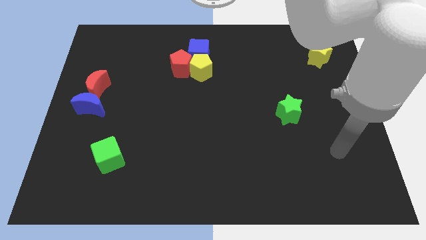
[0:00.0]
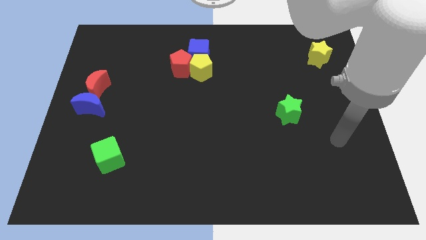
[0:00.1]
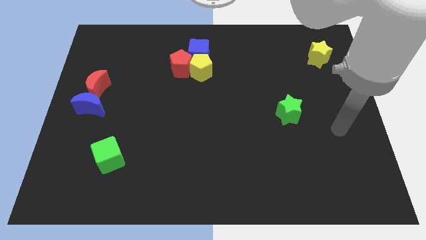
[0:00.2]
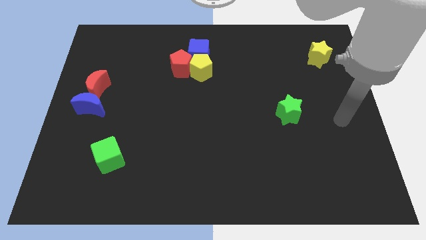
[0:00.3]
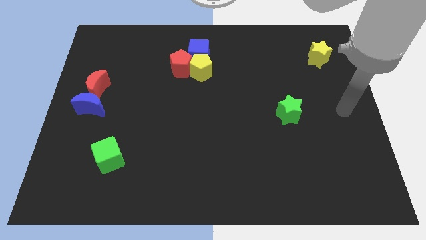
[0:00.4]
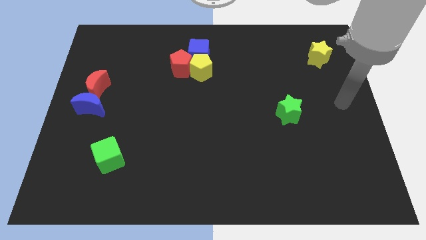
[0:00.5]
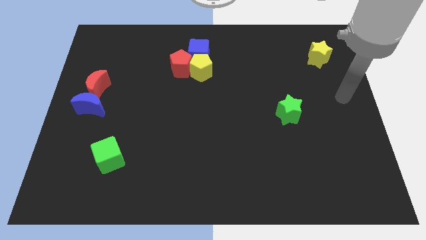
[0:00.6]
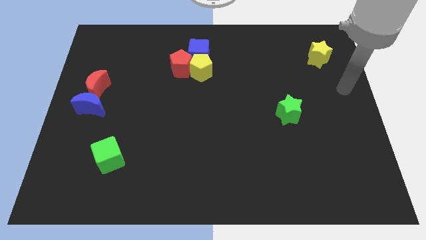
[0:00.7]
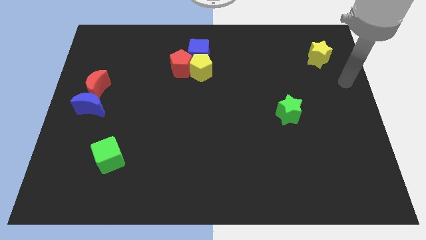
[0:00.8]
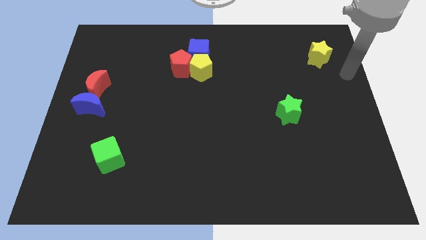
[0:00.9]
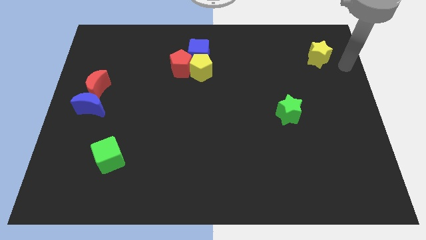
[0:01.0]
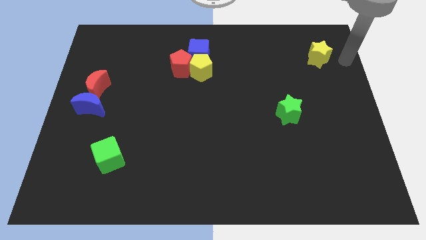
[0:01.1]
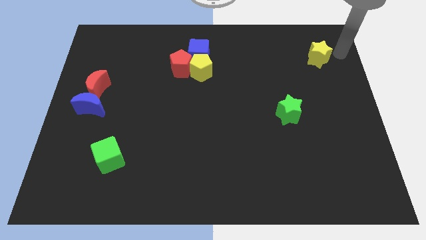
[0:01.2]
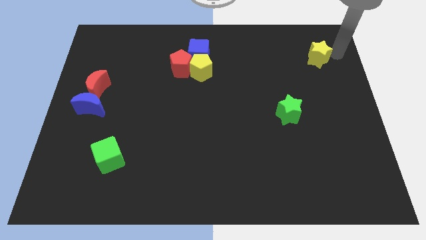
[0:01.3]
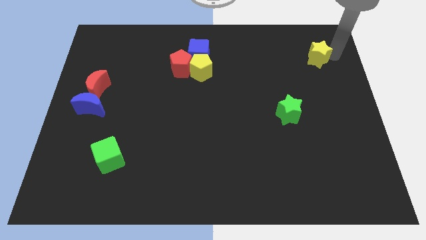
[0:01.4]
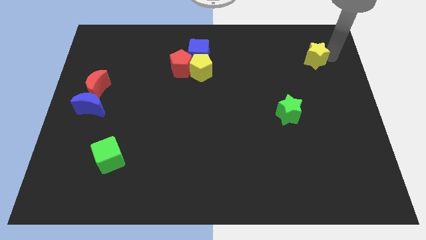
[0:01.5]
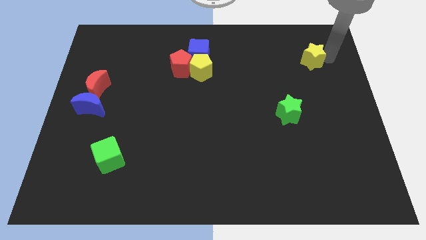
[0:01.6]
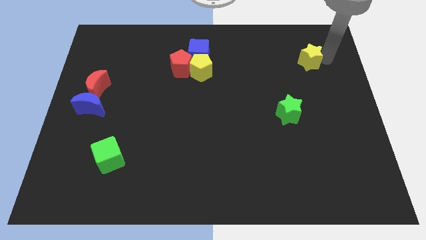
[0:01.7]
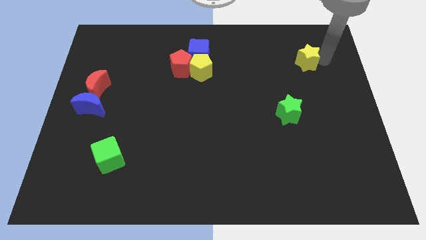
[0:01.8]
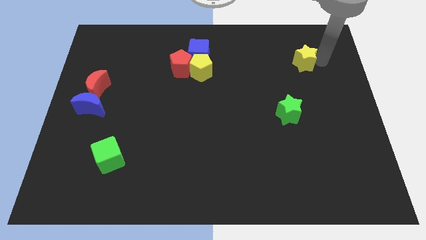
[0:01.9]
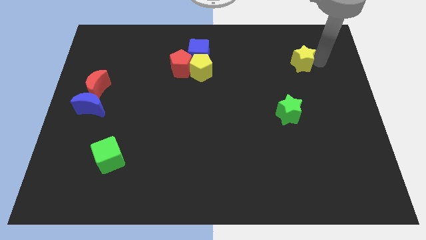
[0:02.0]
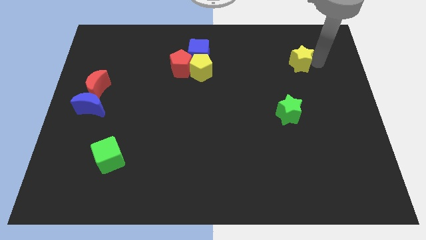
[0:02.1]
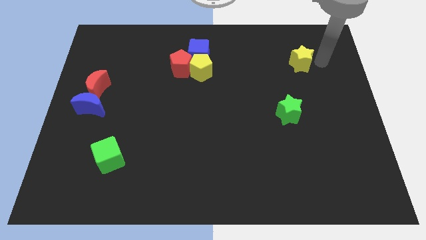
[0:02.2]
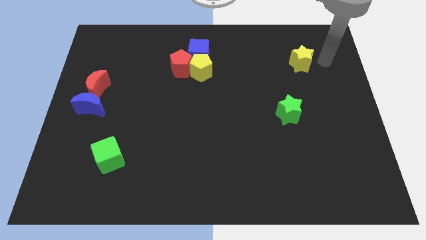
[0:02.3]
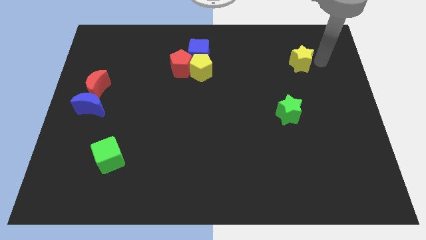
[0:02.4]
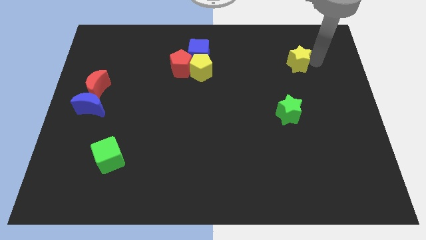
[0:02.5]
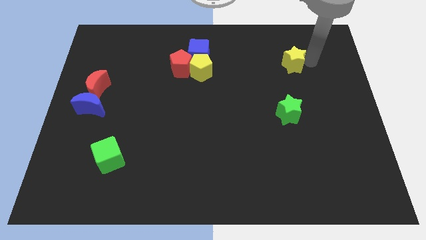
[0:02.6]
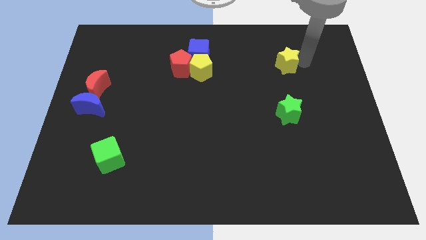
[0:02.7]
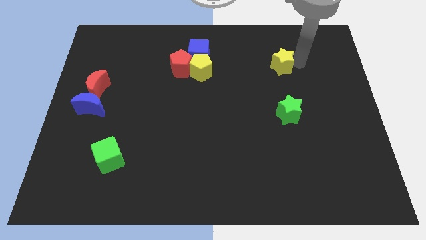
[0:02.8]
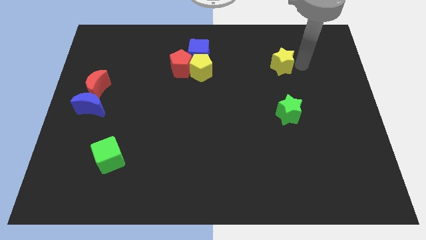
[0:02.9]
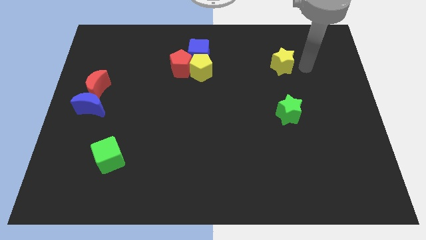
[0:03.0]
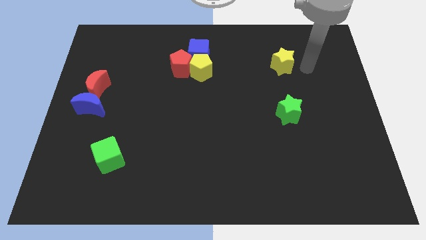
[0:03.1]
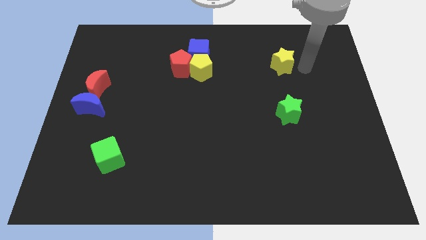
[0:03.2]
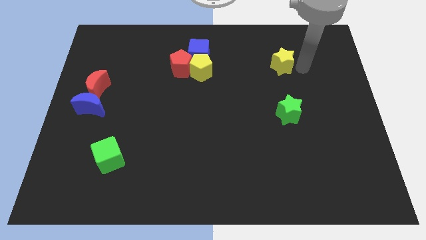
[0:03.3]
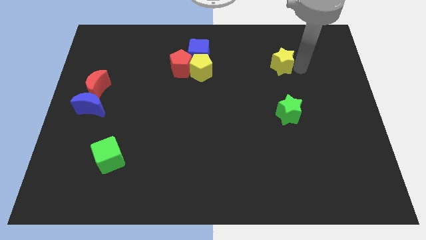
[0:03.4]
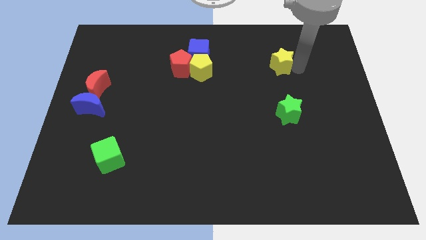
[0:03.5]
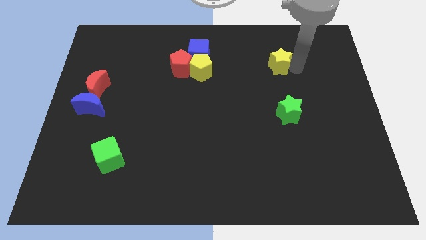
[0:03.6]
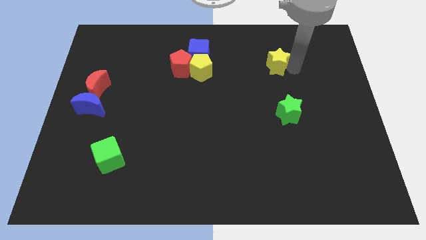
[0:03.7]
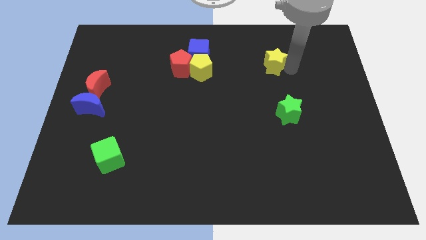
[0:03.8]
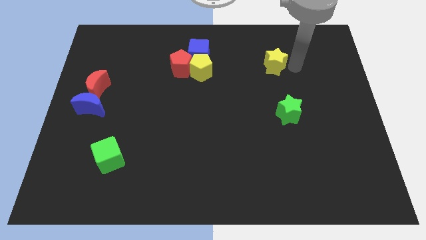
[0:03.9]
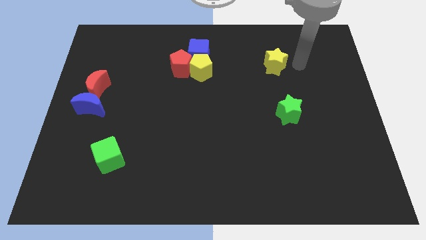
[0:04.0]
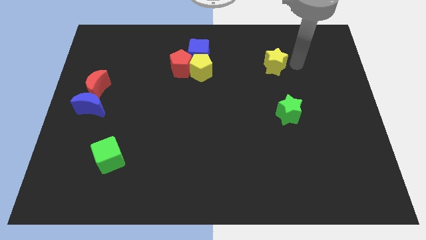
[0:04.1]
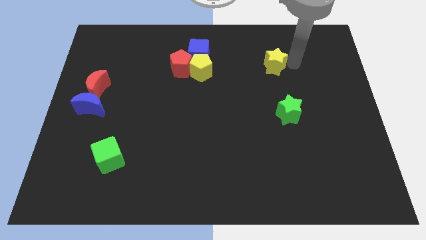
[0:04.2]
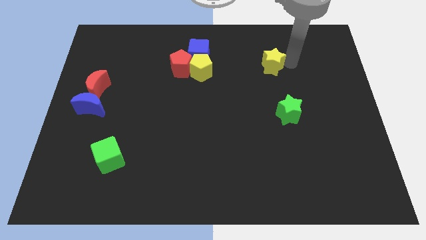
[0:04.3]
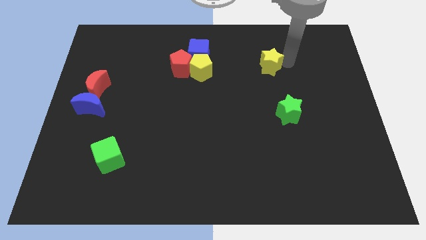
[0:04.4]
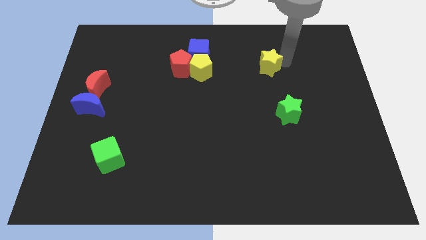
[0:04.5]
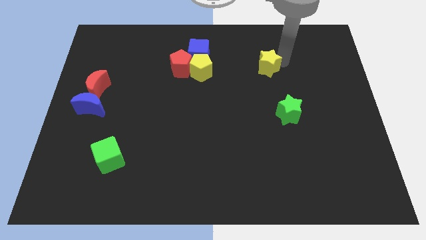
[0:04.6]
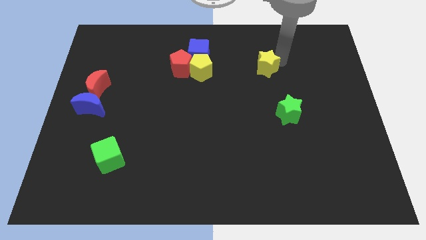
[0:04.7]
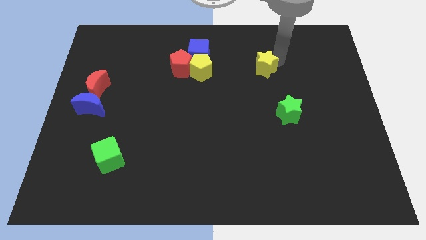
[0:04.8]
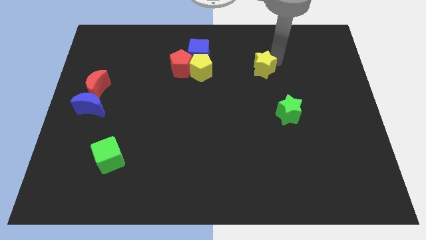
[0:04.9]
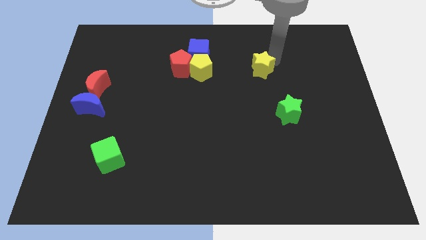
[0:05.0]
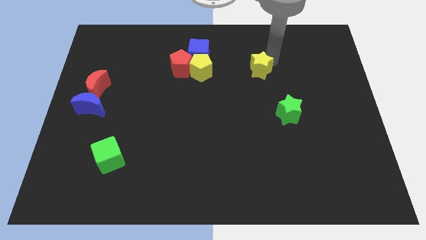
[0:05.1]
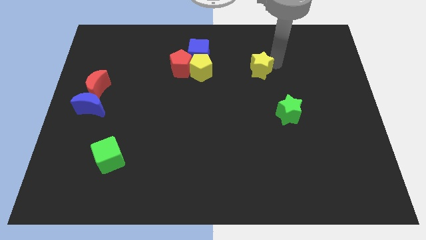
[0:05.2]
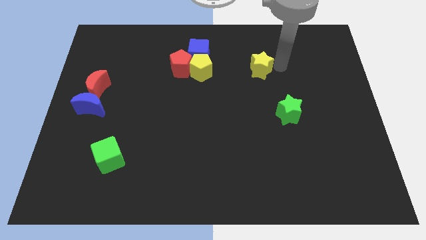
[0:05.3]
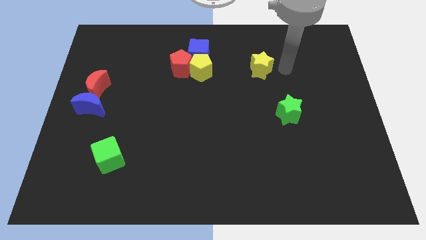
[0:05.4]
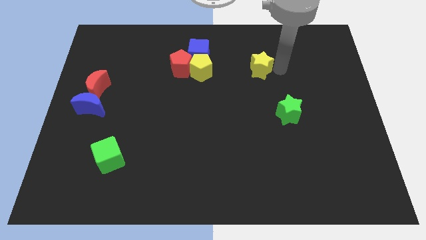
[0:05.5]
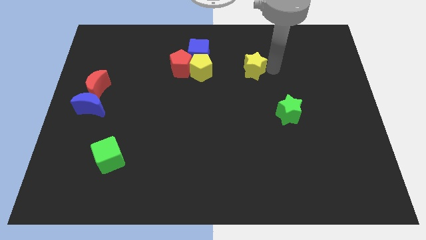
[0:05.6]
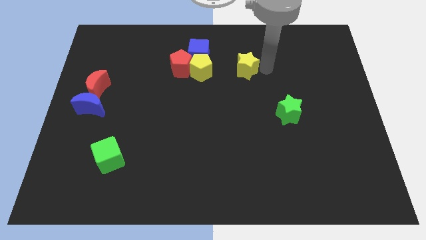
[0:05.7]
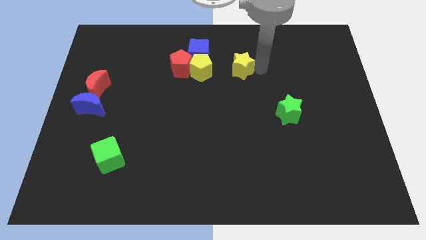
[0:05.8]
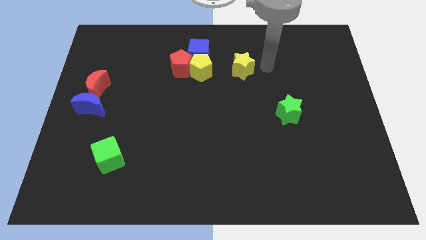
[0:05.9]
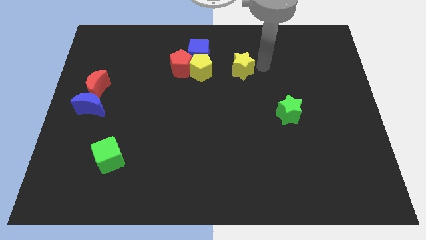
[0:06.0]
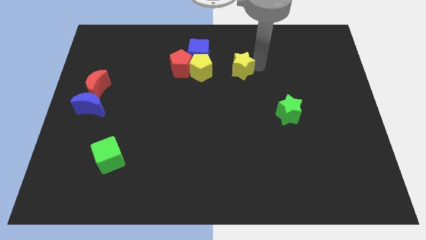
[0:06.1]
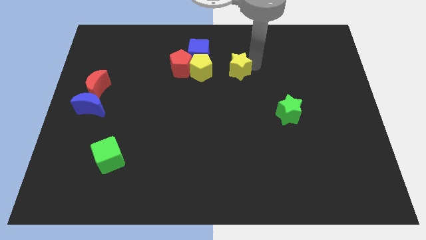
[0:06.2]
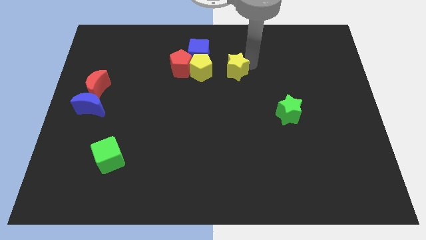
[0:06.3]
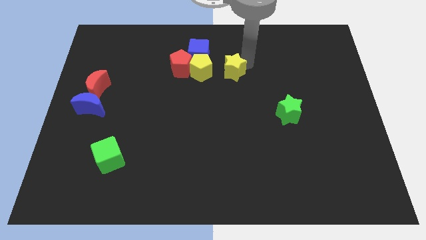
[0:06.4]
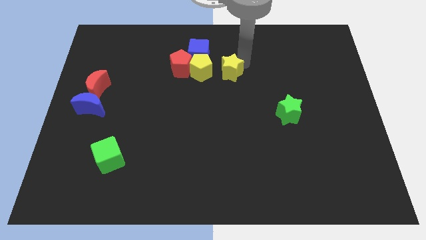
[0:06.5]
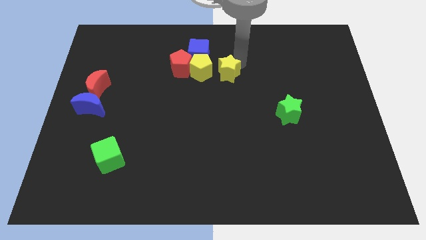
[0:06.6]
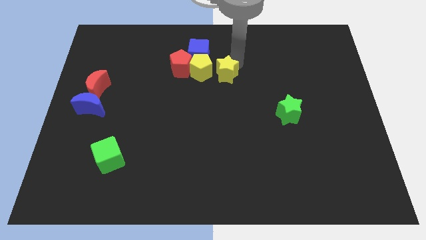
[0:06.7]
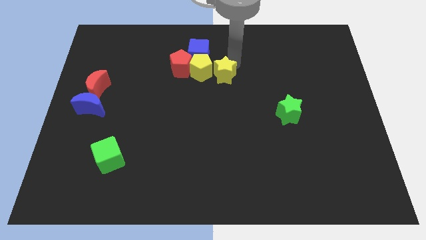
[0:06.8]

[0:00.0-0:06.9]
push the yellow star to the yellow pentagon
